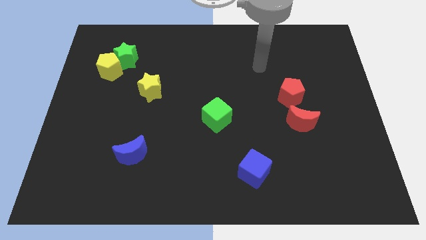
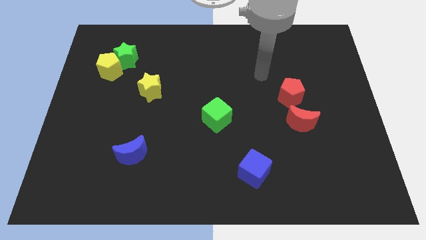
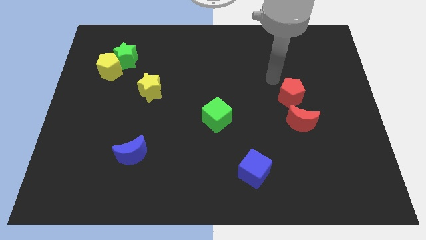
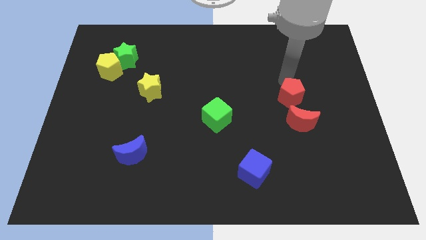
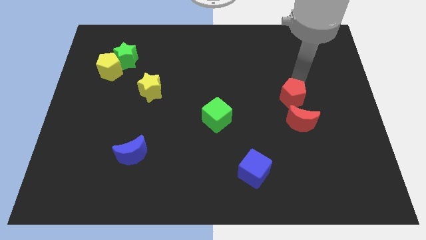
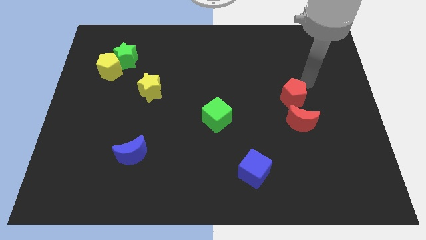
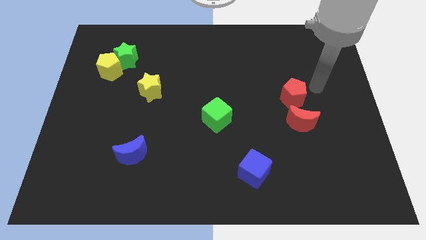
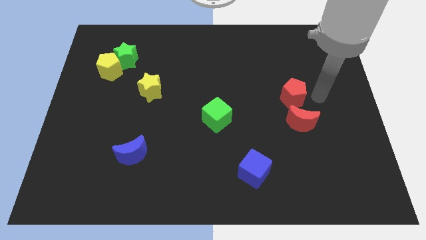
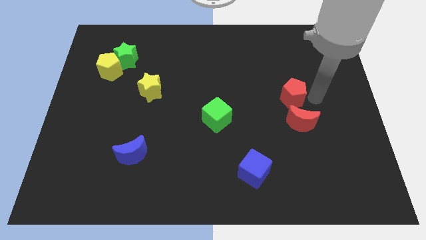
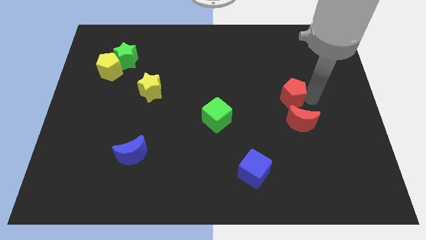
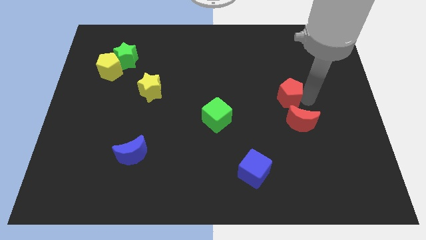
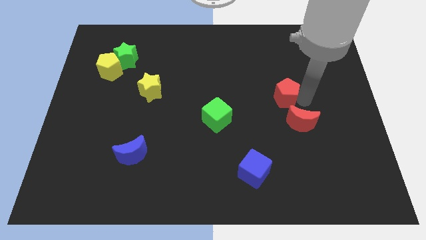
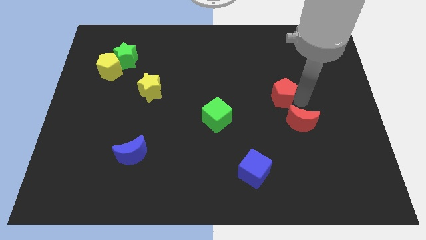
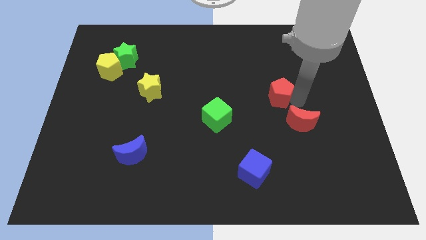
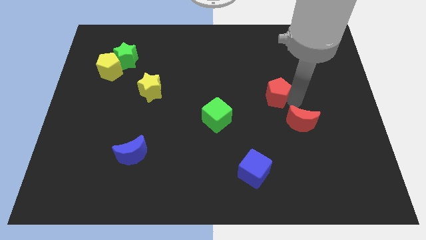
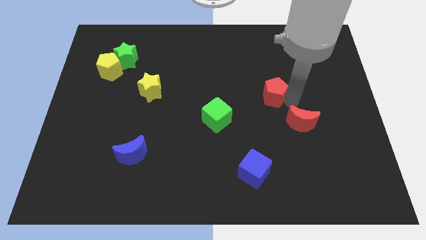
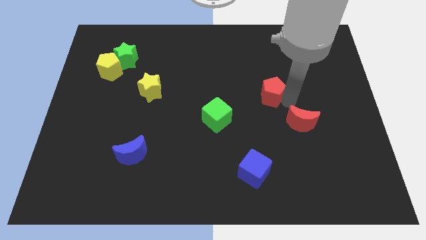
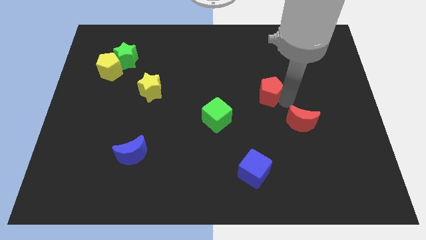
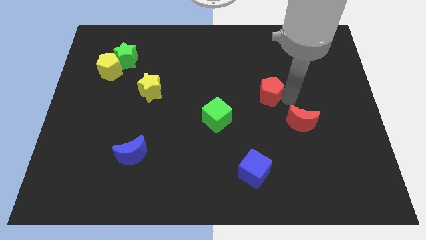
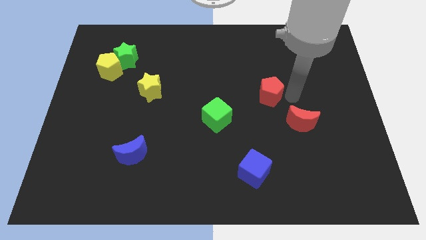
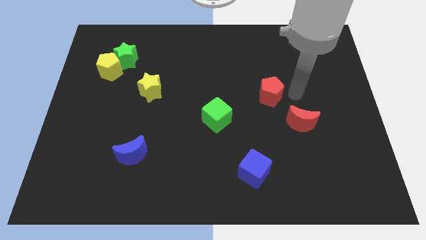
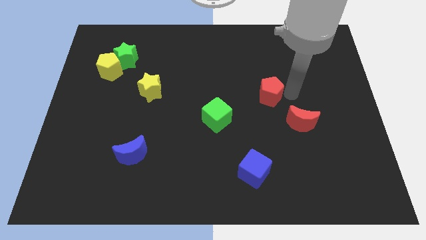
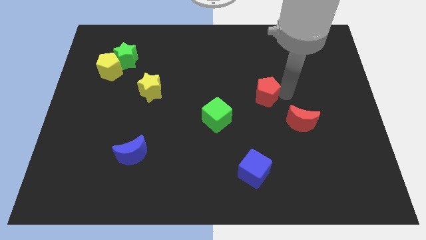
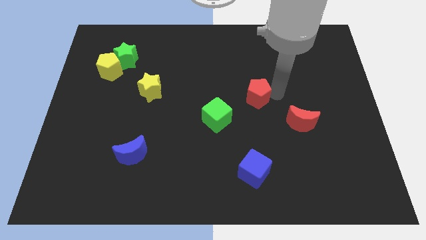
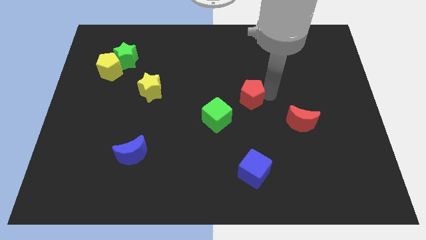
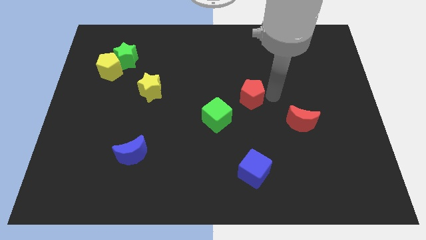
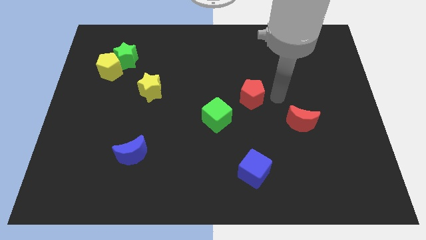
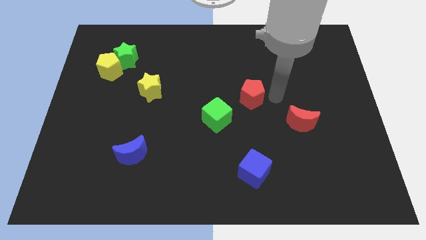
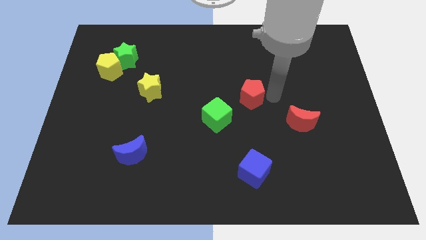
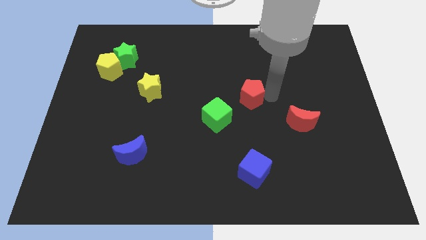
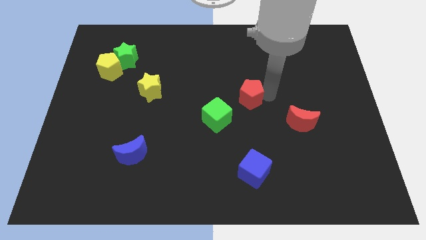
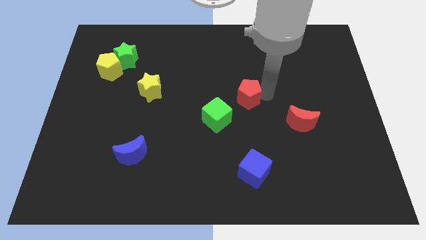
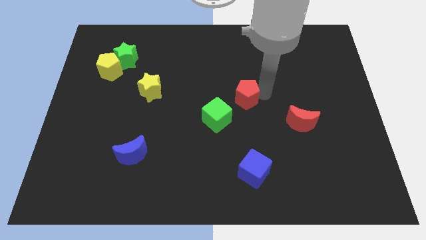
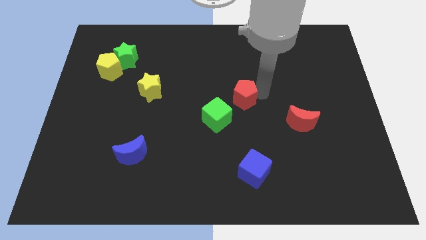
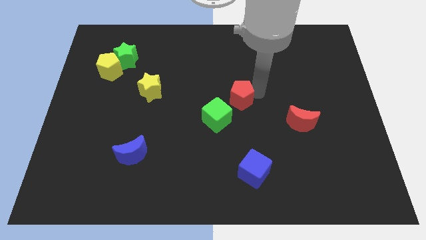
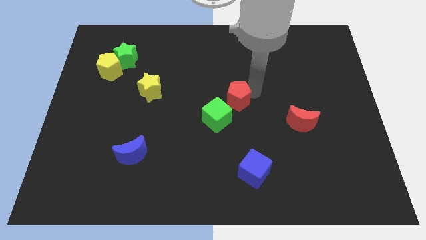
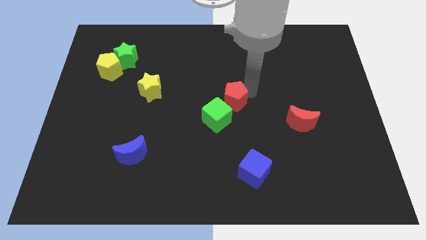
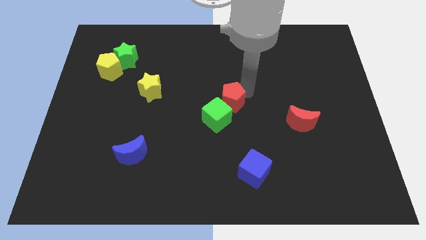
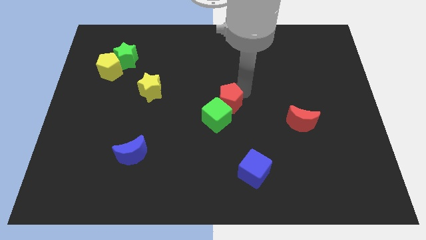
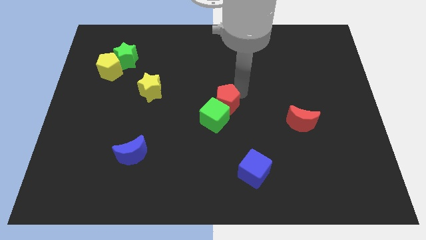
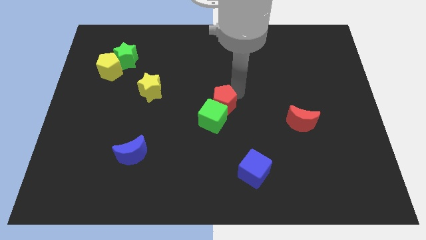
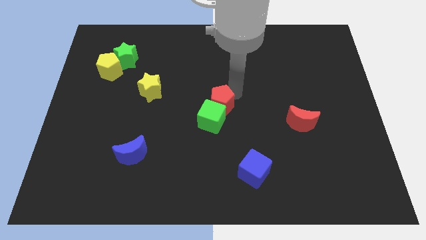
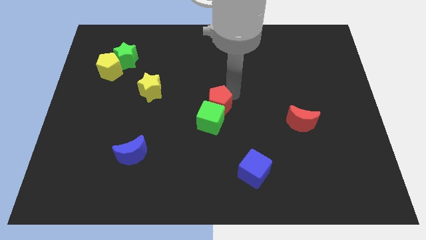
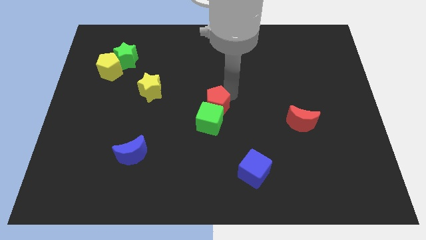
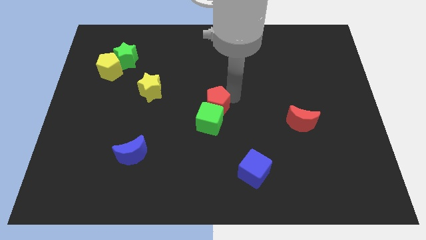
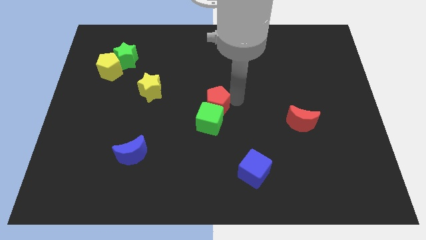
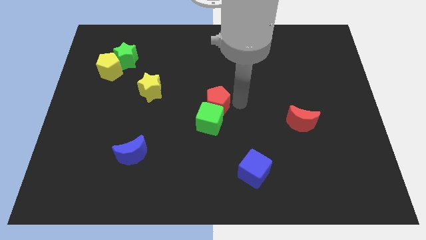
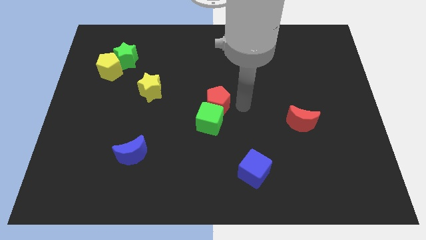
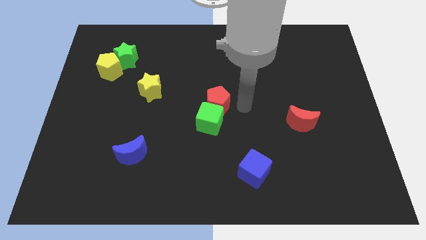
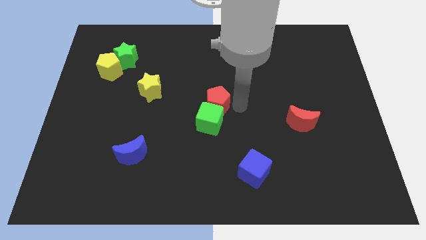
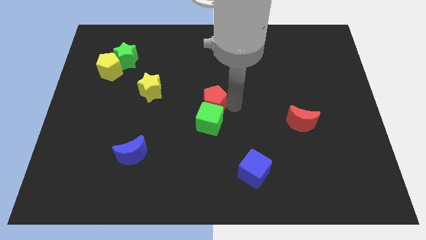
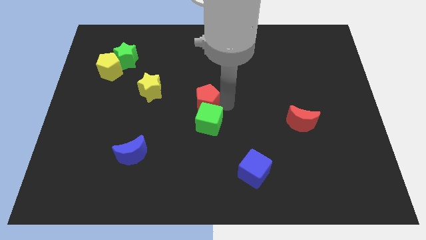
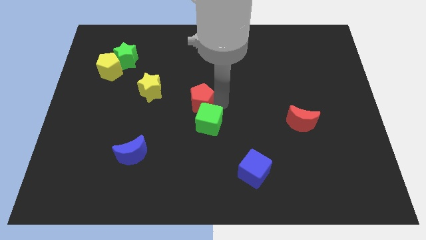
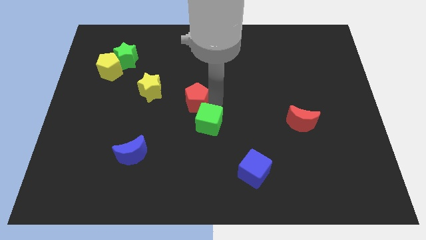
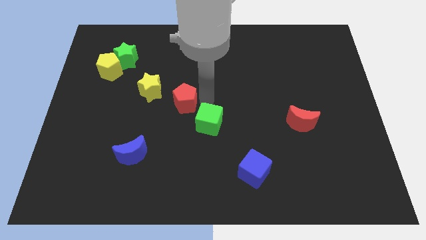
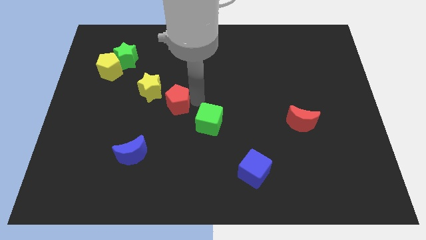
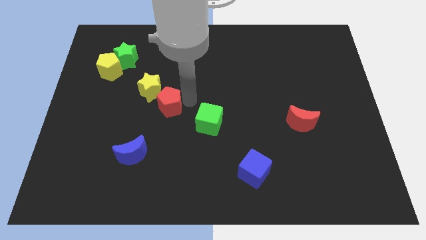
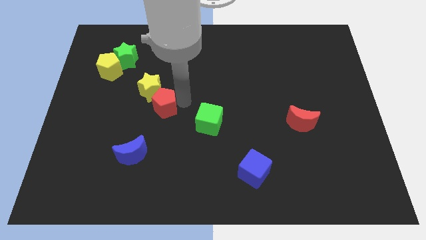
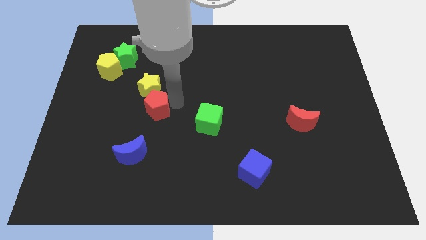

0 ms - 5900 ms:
put the red pentagon to the top side of the blue moon
